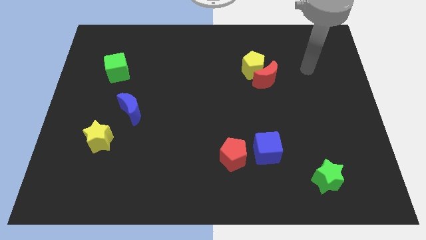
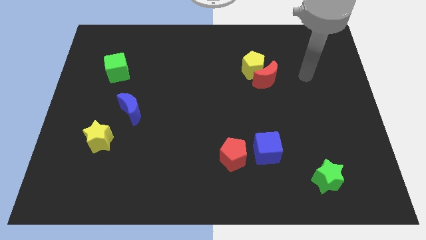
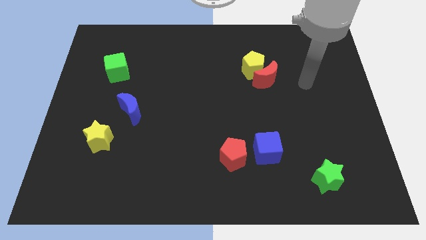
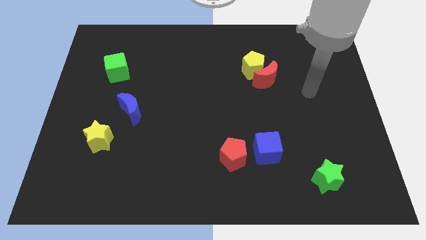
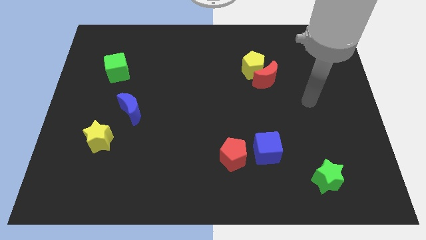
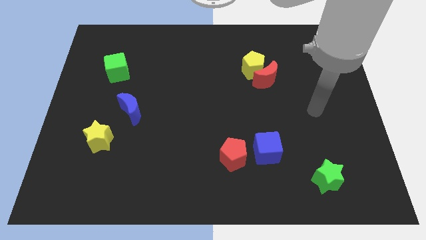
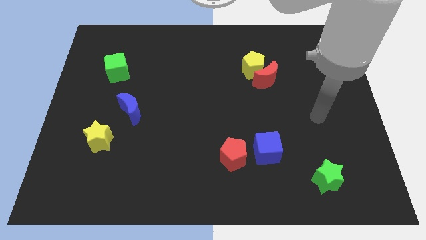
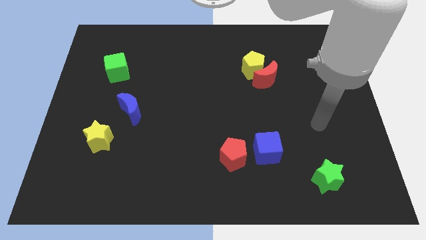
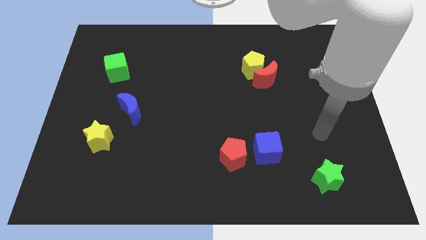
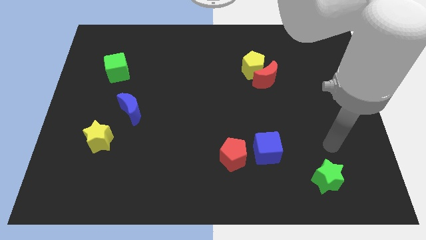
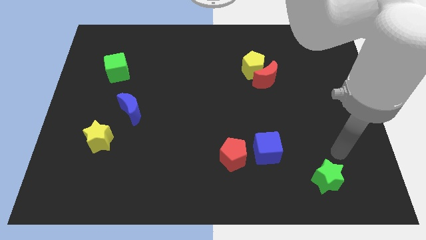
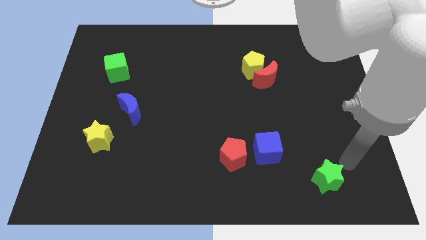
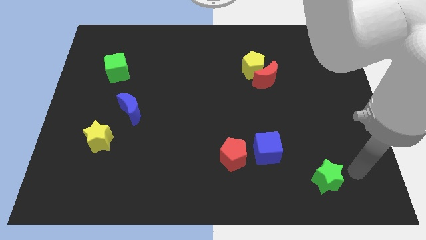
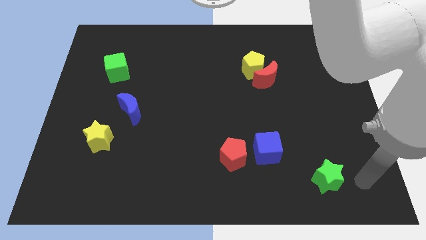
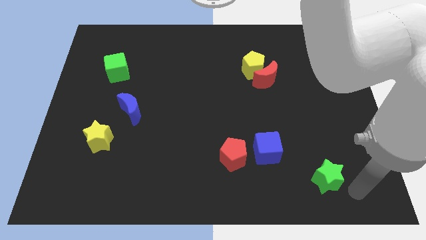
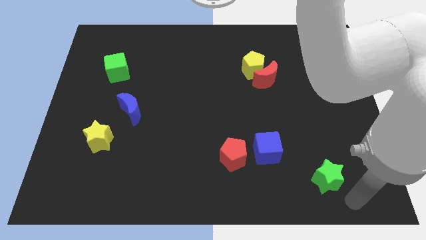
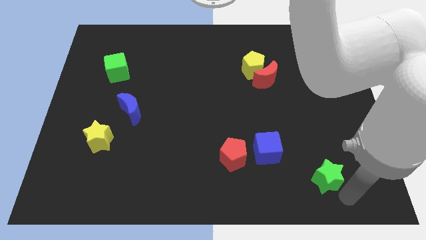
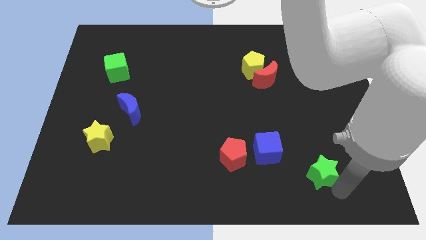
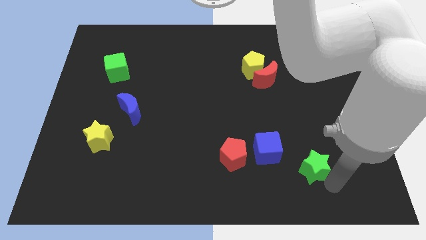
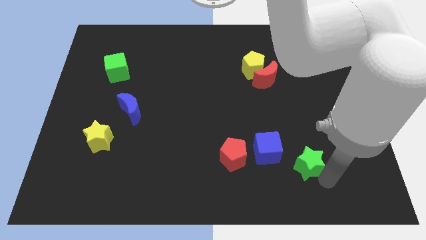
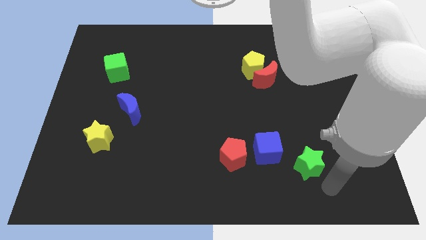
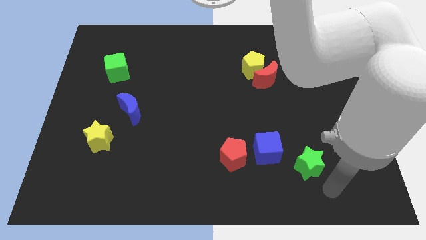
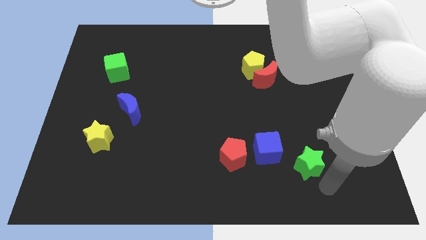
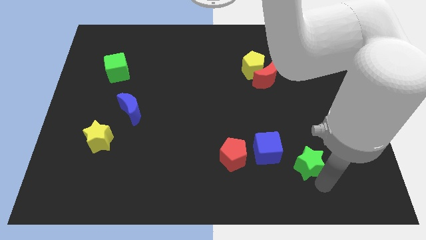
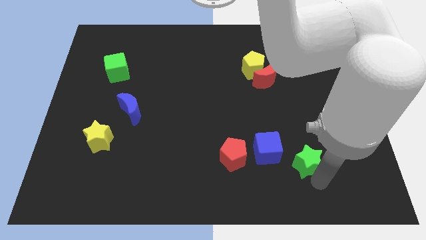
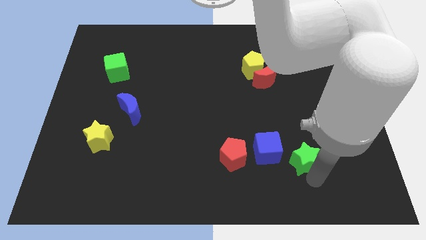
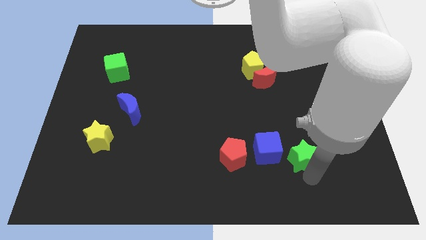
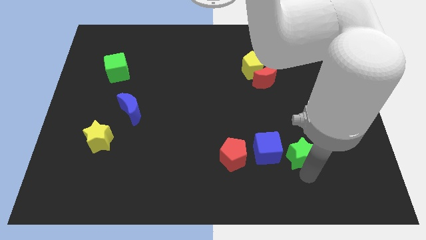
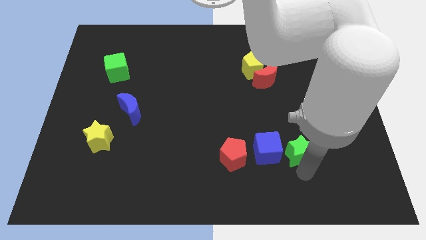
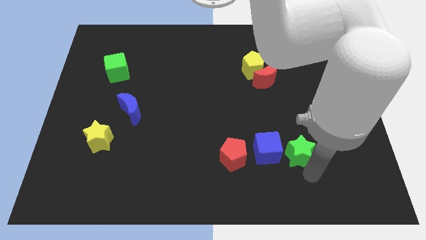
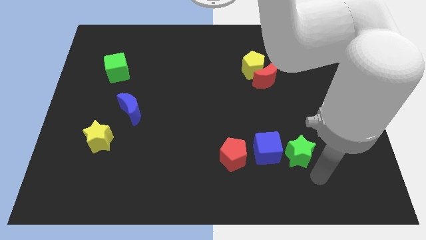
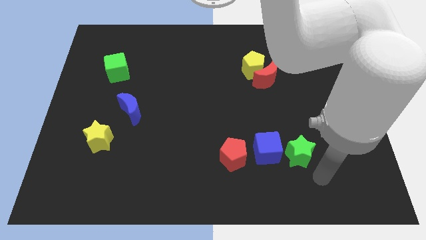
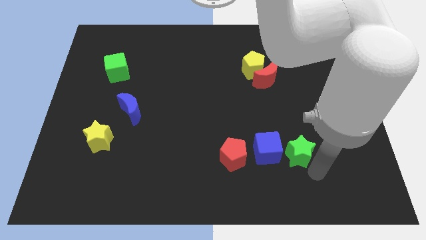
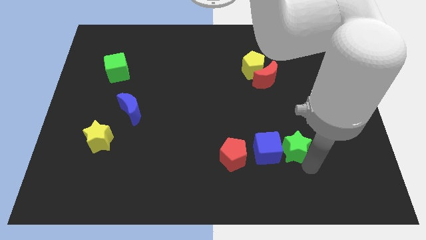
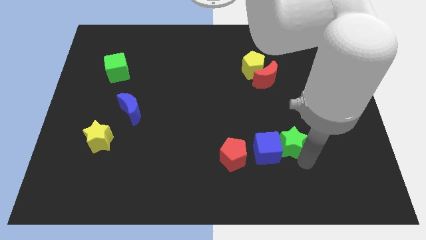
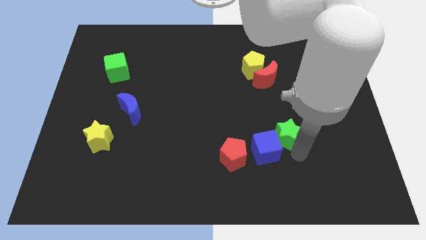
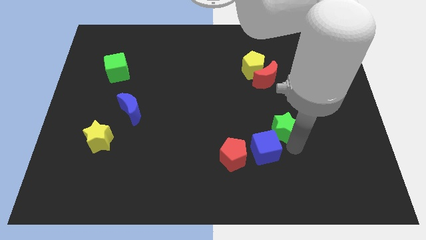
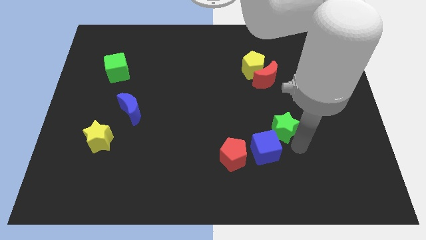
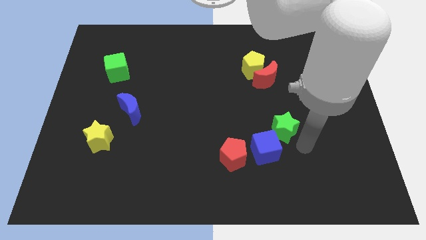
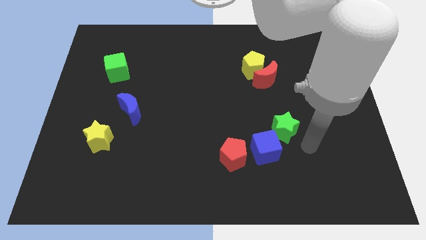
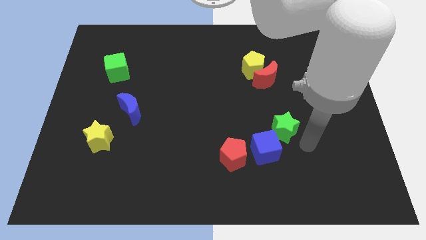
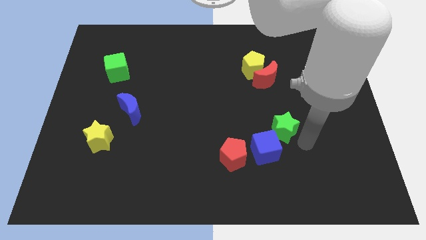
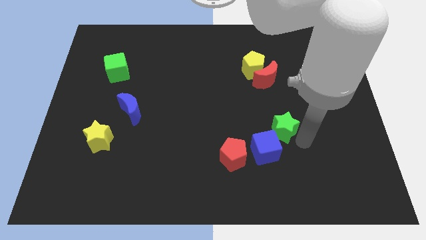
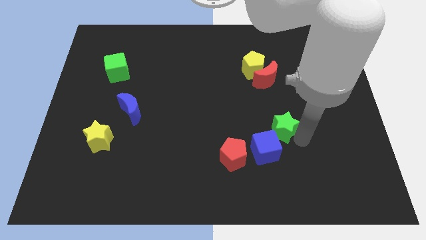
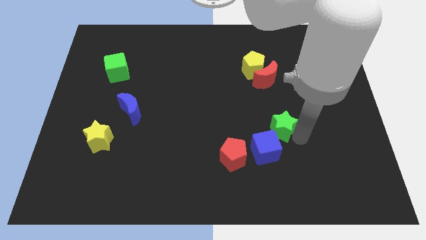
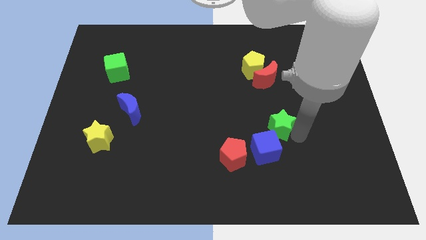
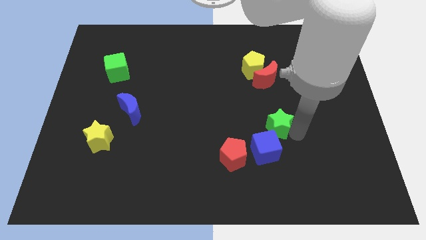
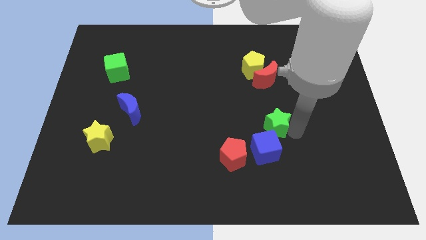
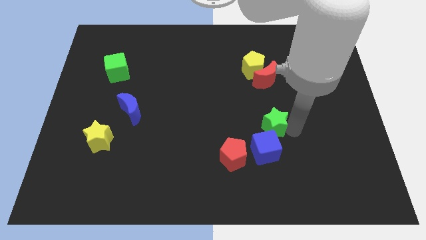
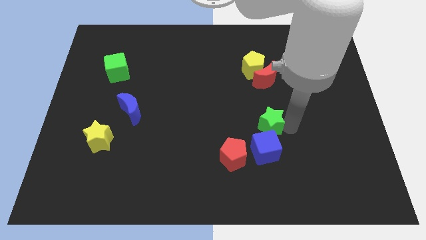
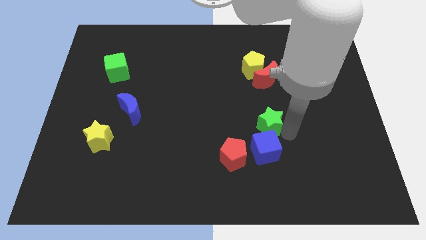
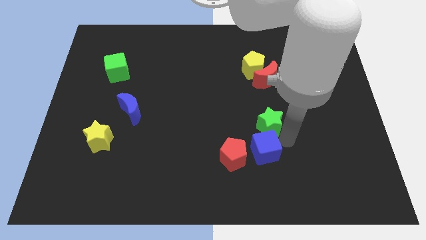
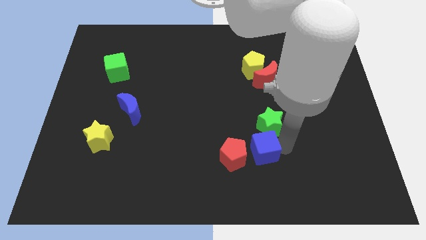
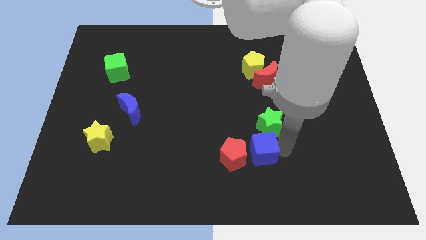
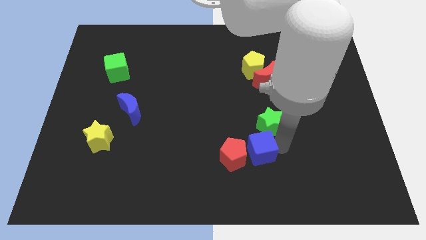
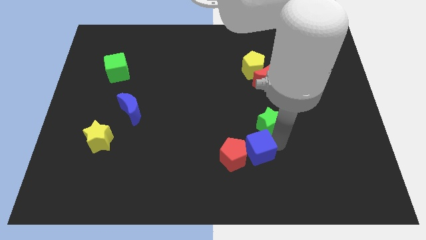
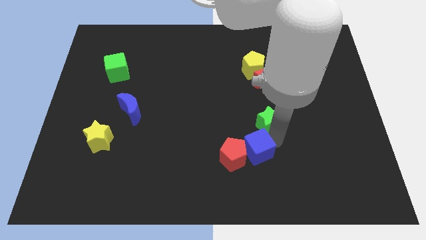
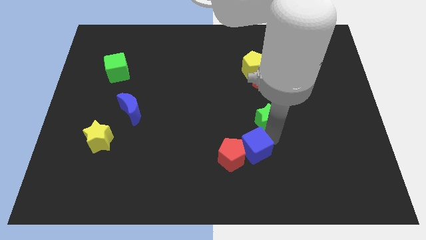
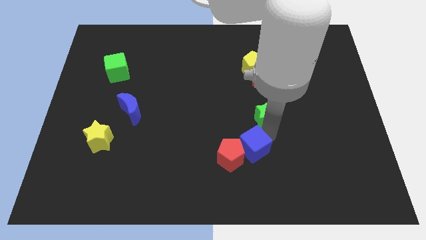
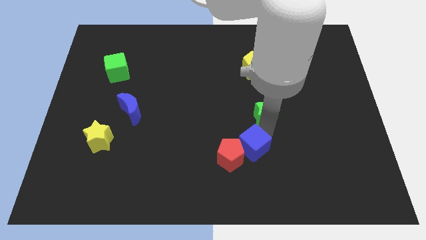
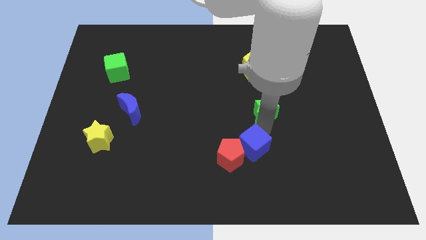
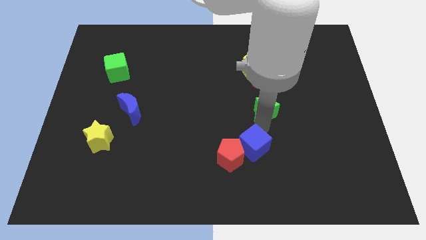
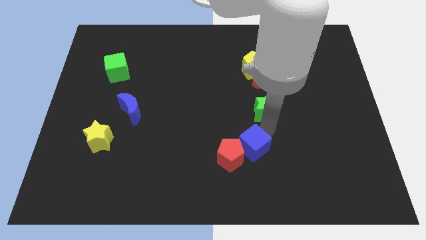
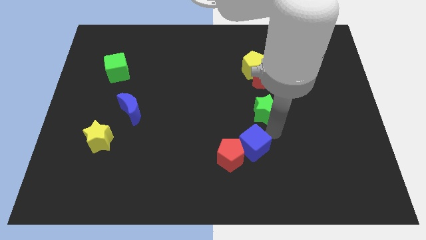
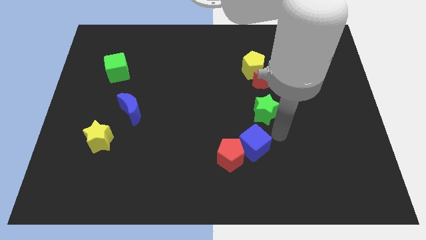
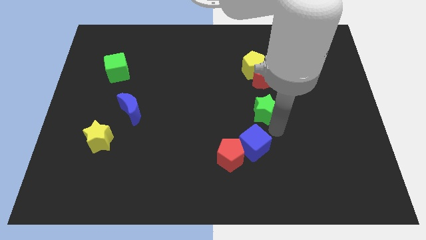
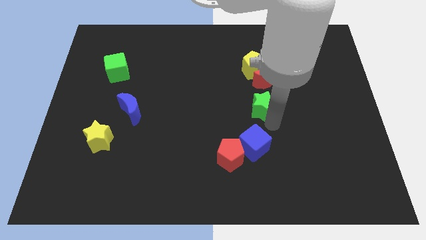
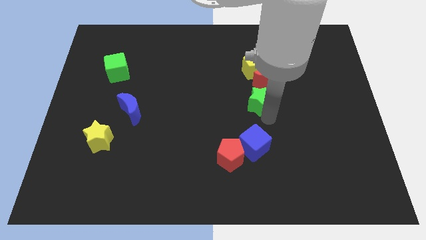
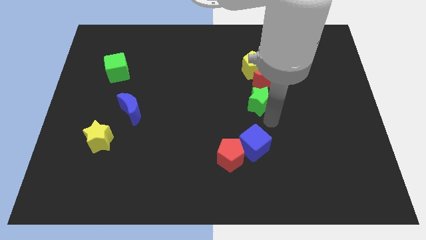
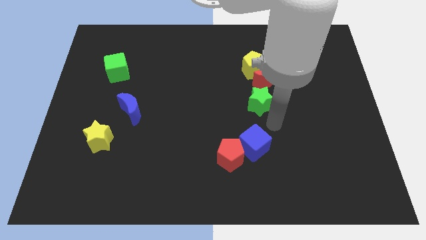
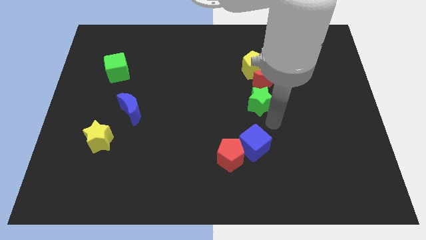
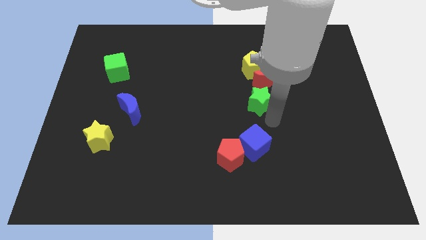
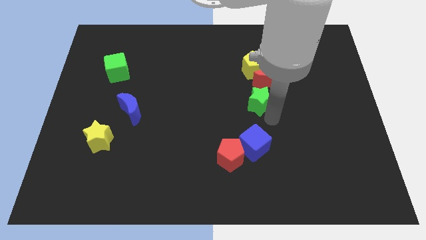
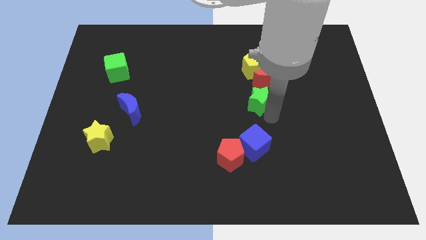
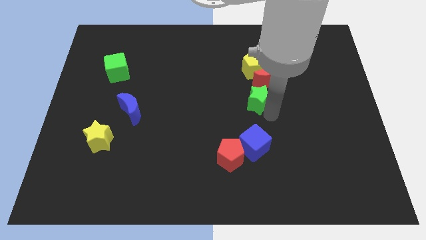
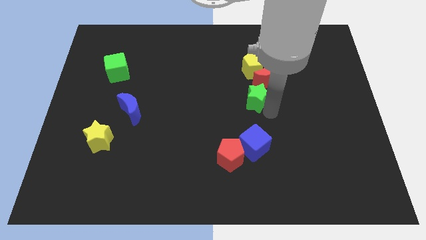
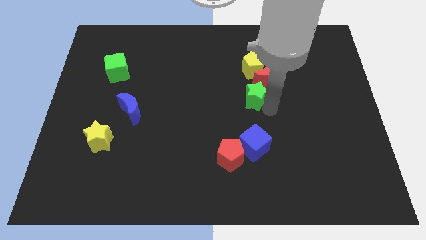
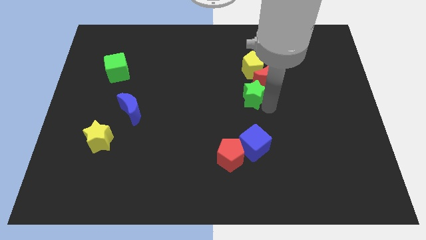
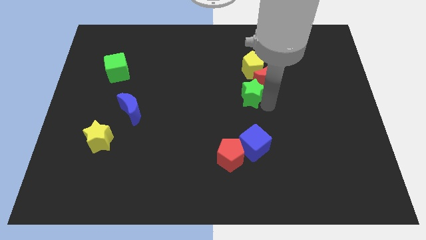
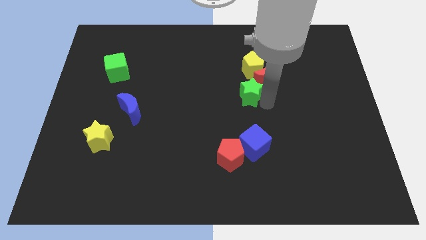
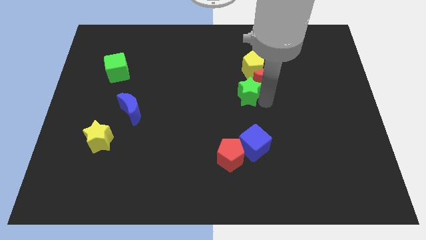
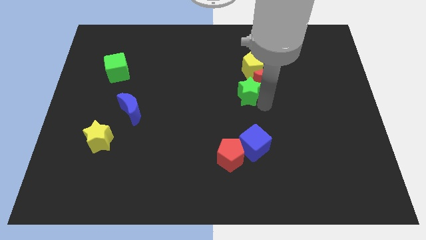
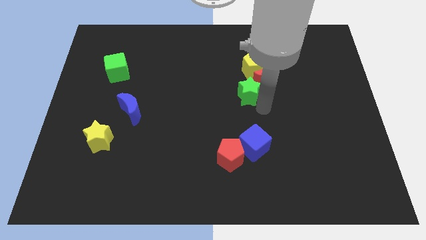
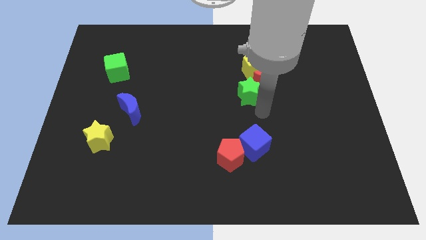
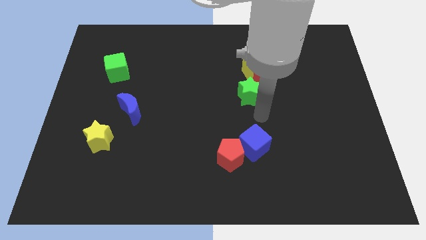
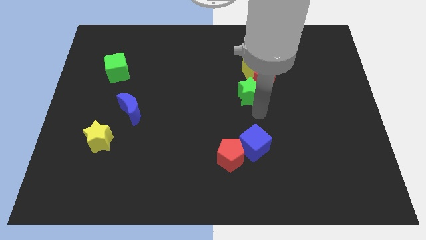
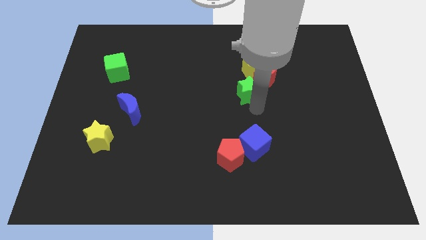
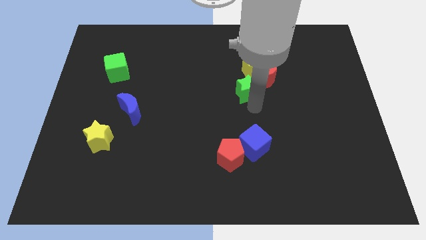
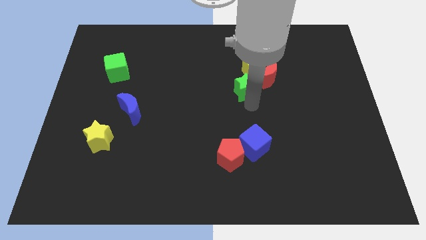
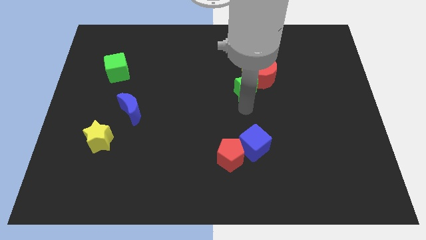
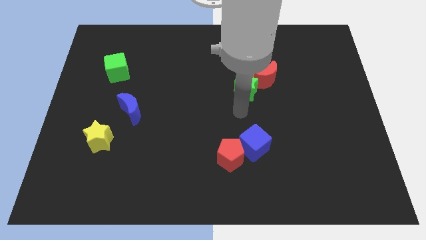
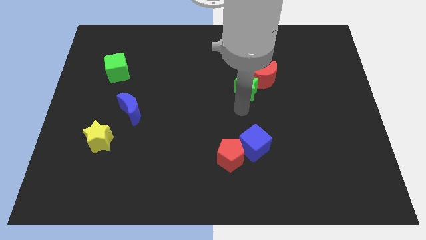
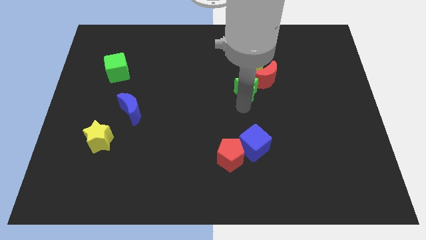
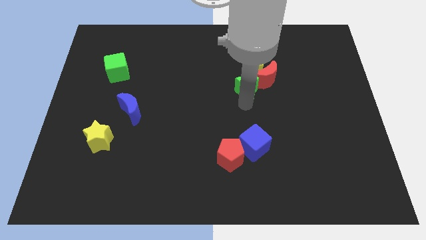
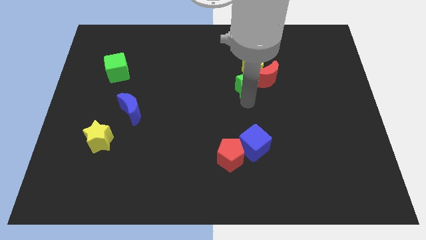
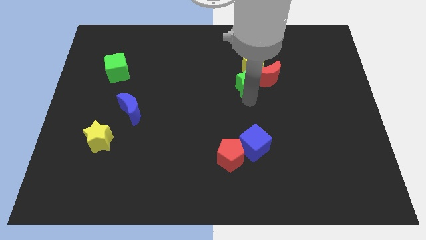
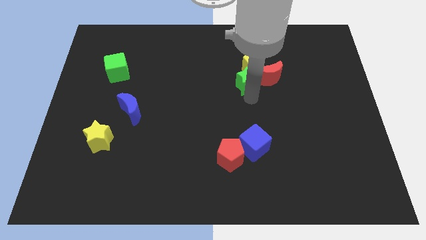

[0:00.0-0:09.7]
push the green star to the yellow pentagon
